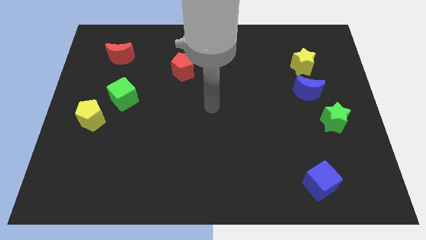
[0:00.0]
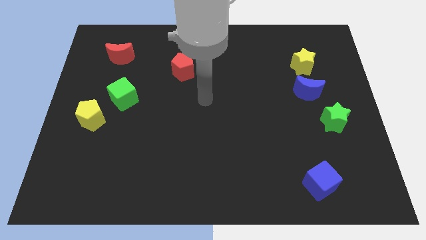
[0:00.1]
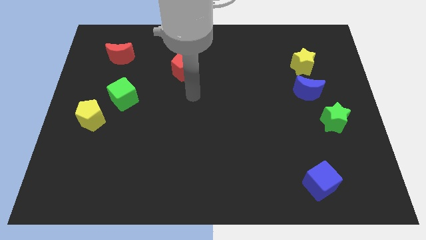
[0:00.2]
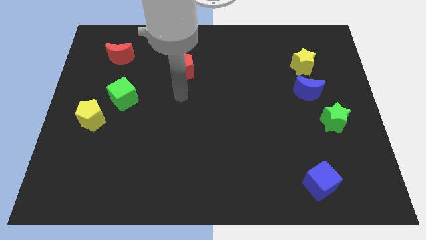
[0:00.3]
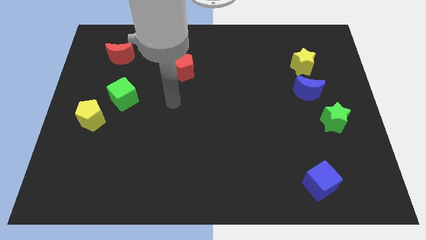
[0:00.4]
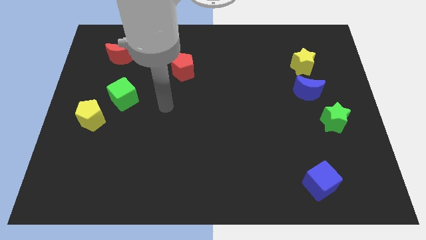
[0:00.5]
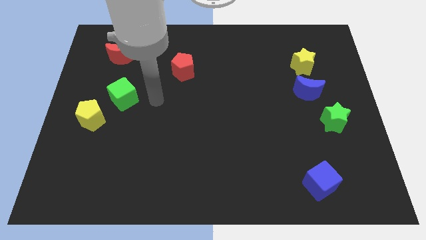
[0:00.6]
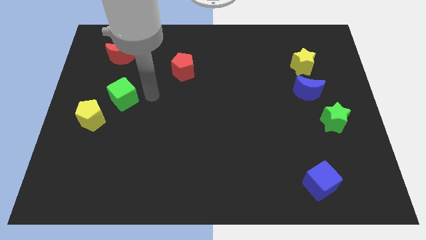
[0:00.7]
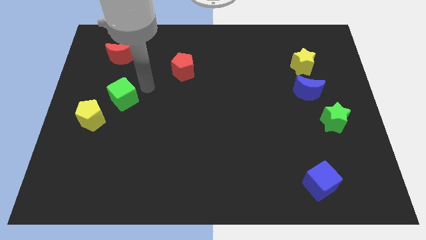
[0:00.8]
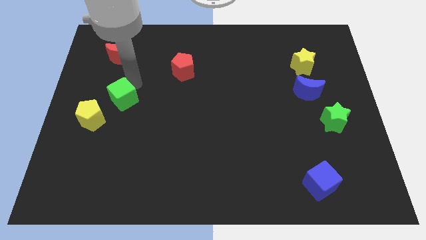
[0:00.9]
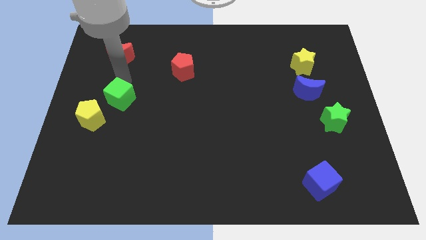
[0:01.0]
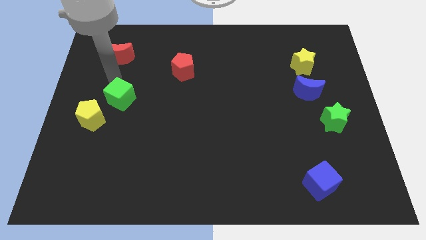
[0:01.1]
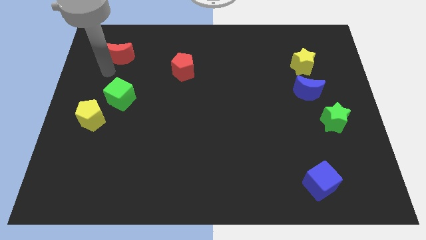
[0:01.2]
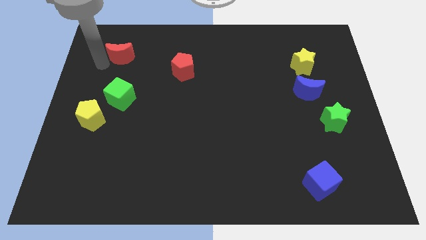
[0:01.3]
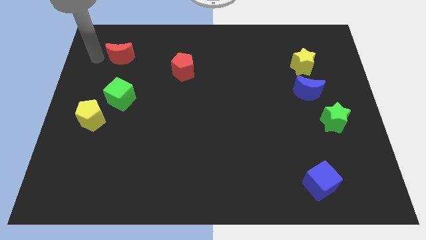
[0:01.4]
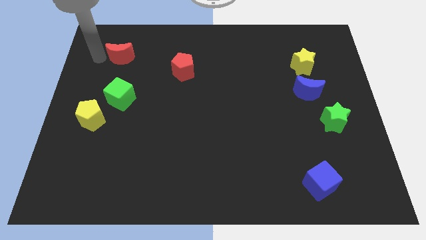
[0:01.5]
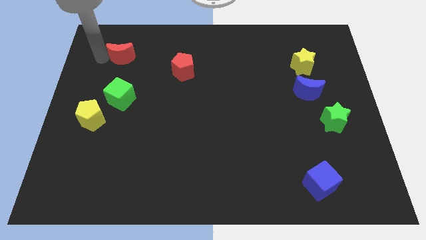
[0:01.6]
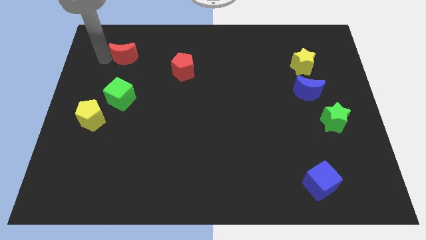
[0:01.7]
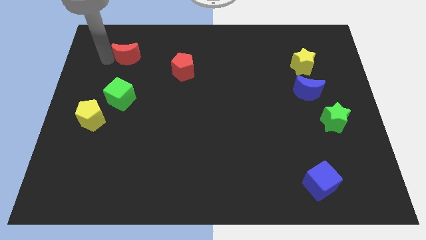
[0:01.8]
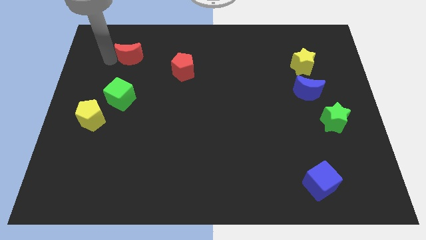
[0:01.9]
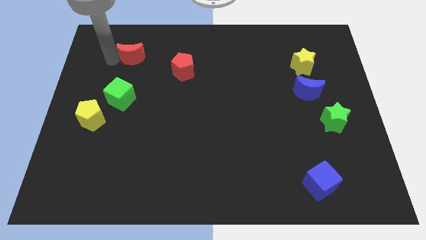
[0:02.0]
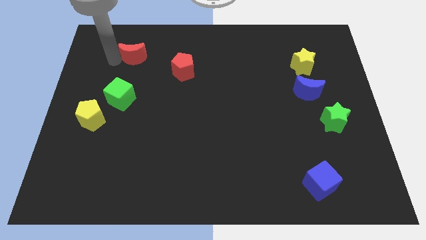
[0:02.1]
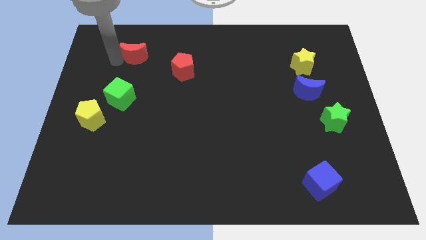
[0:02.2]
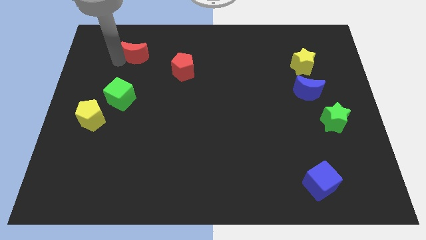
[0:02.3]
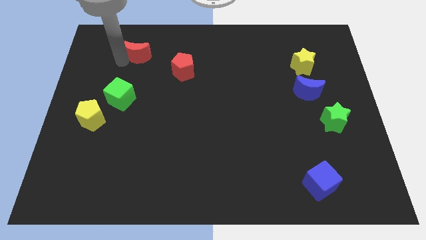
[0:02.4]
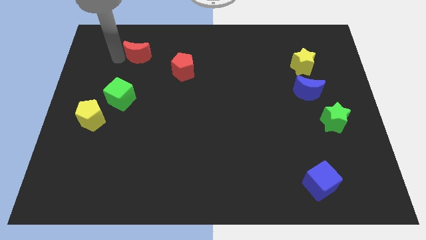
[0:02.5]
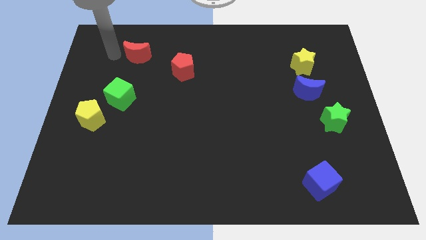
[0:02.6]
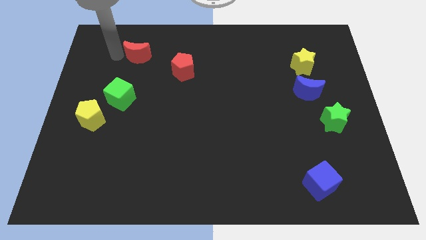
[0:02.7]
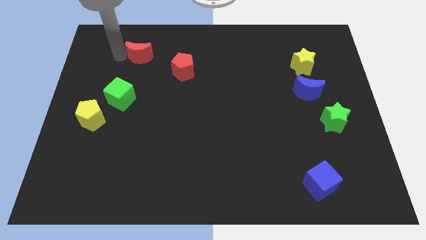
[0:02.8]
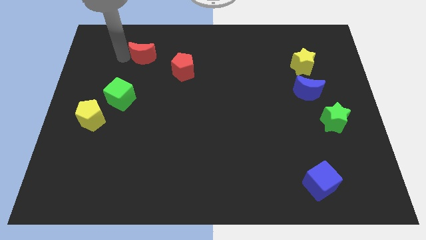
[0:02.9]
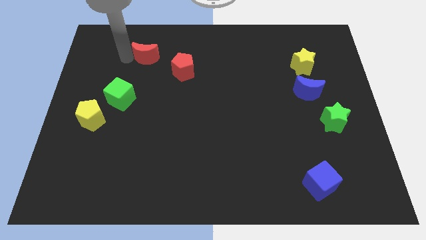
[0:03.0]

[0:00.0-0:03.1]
slightly move the red moon to the right

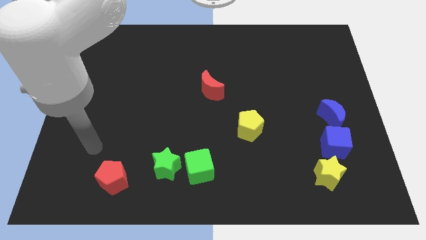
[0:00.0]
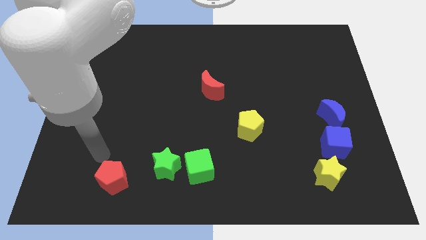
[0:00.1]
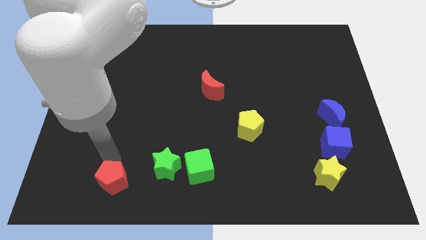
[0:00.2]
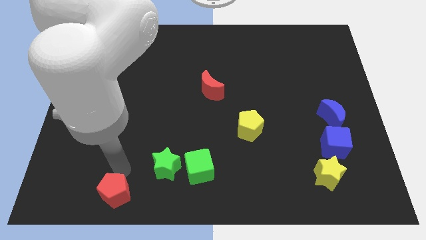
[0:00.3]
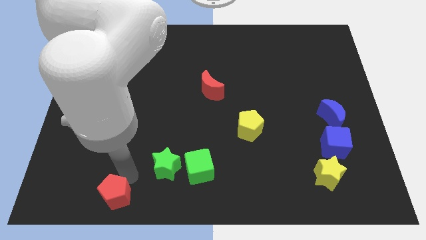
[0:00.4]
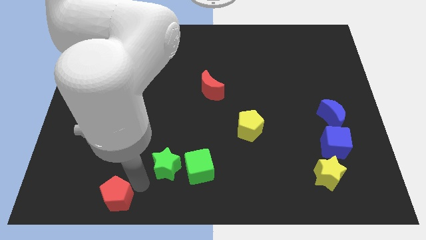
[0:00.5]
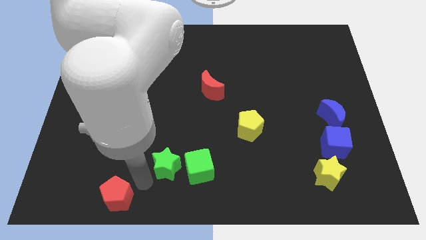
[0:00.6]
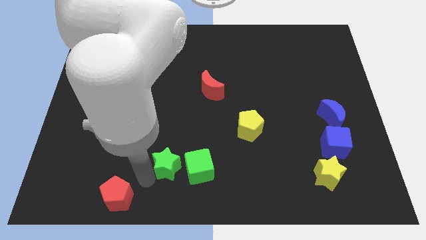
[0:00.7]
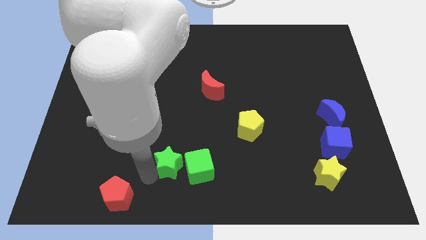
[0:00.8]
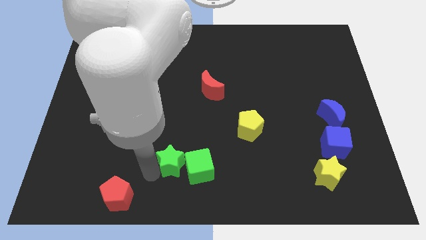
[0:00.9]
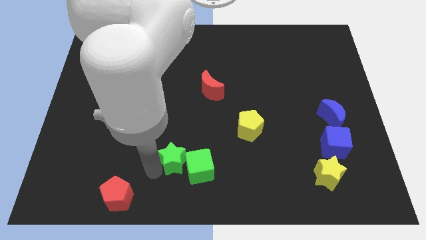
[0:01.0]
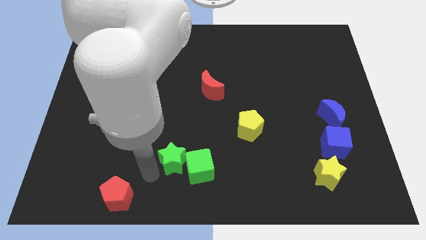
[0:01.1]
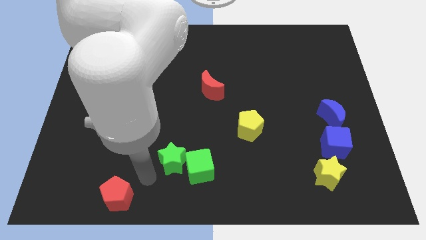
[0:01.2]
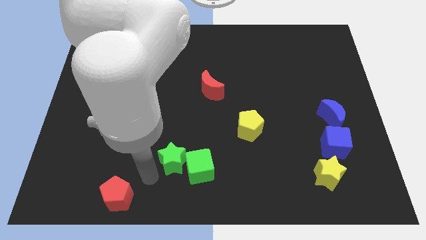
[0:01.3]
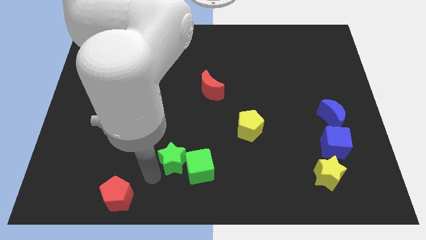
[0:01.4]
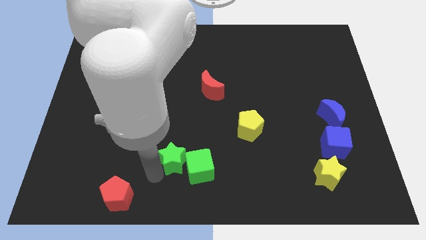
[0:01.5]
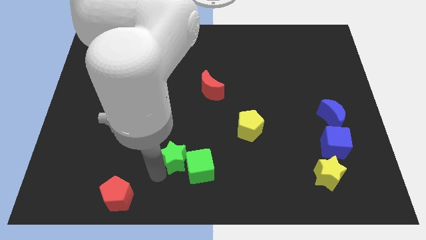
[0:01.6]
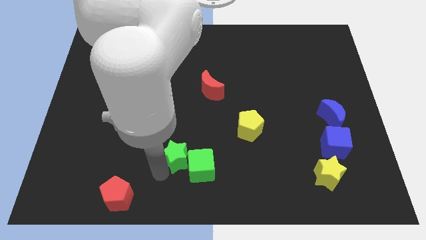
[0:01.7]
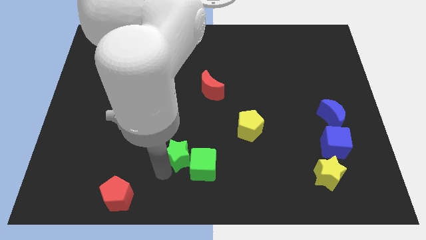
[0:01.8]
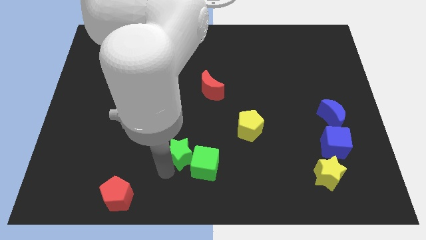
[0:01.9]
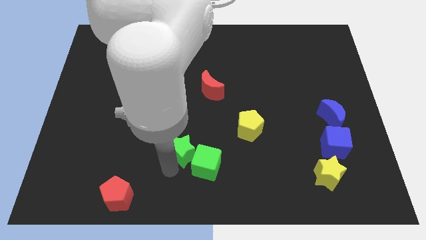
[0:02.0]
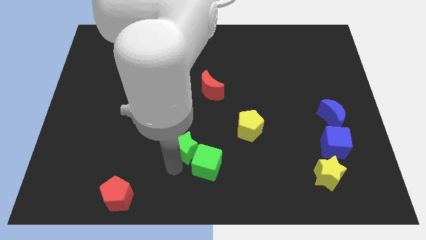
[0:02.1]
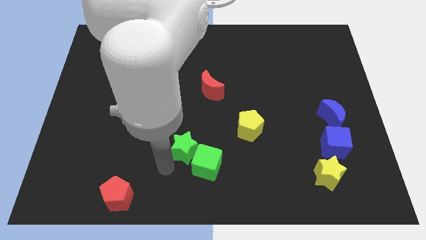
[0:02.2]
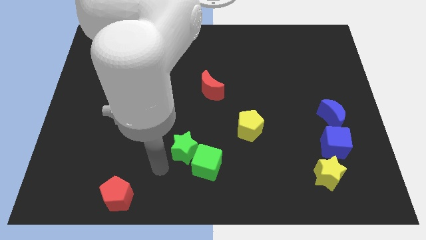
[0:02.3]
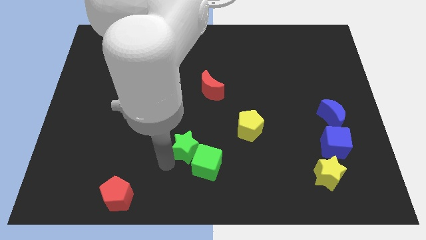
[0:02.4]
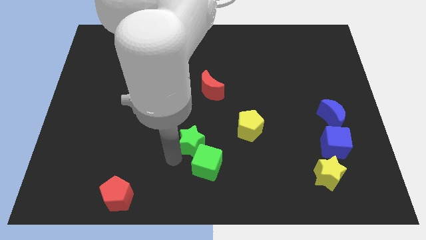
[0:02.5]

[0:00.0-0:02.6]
push the green star a little up and then right

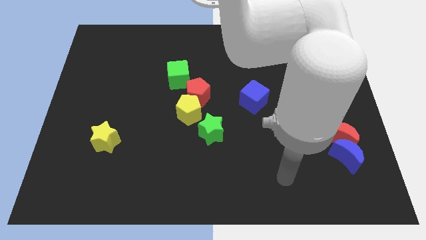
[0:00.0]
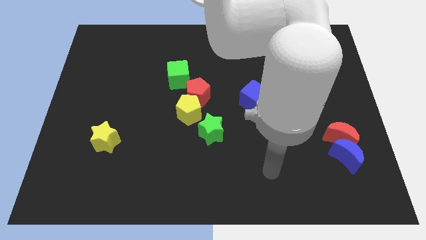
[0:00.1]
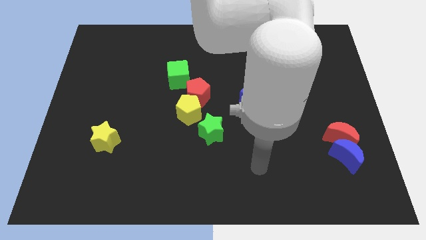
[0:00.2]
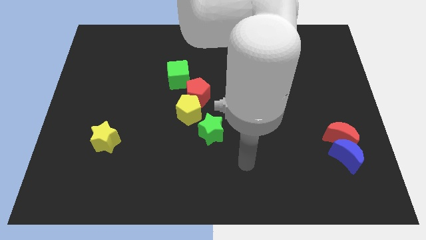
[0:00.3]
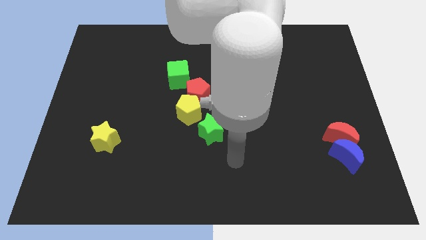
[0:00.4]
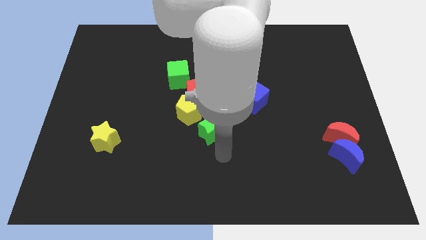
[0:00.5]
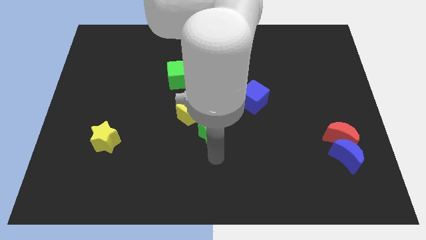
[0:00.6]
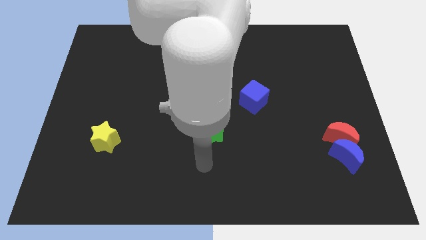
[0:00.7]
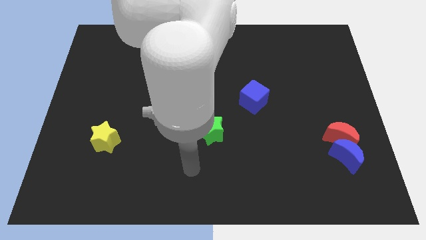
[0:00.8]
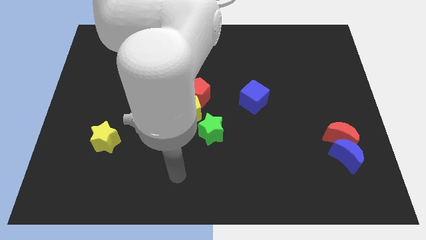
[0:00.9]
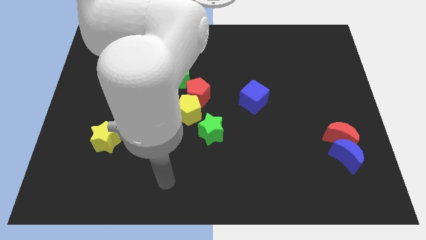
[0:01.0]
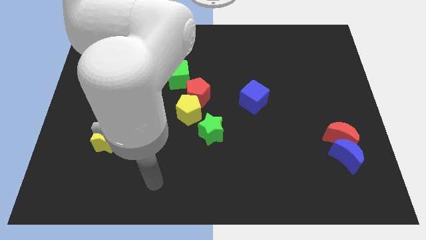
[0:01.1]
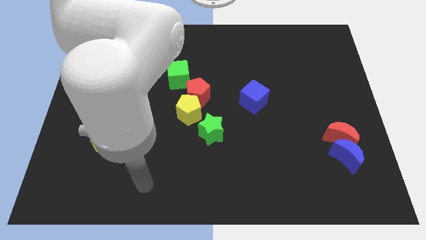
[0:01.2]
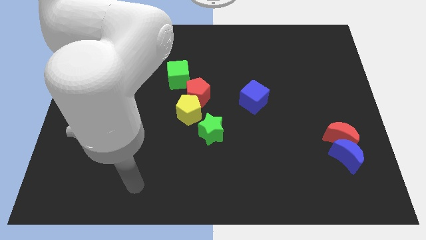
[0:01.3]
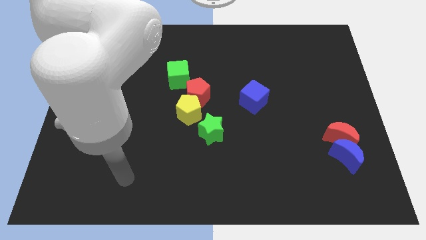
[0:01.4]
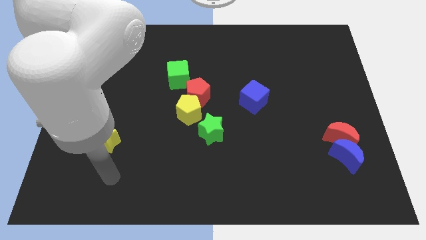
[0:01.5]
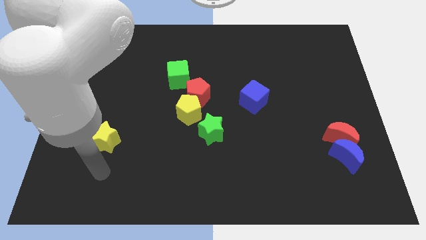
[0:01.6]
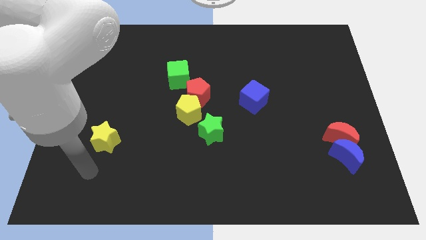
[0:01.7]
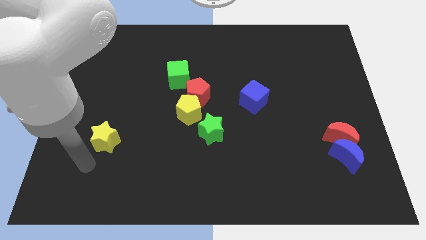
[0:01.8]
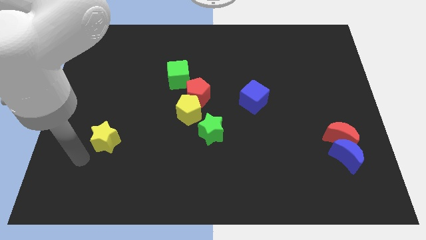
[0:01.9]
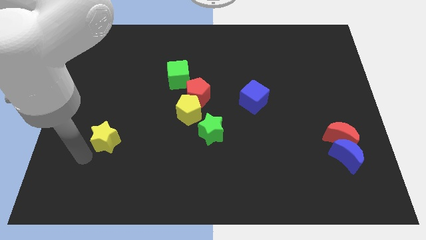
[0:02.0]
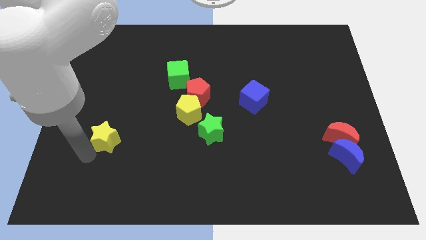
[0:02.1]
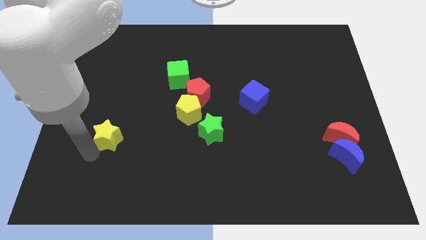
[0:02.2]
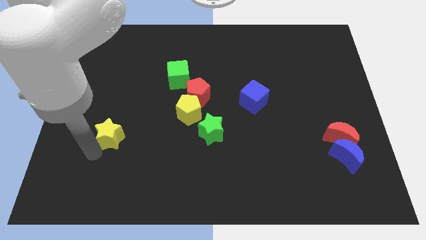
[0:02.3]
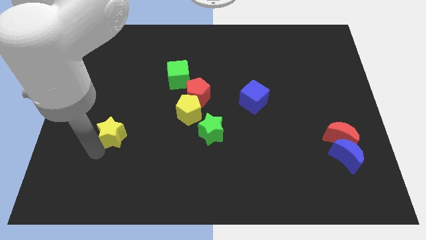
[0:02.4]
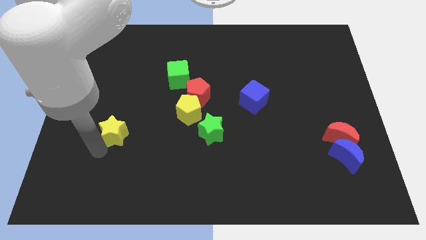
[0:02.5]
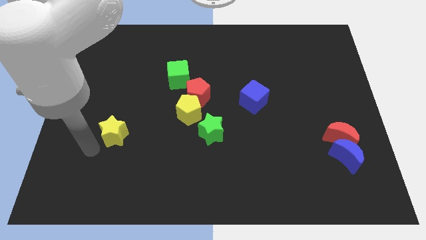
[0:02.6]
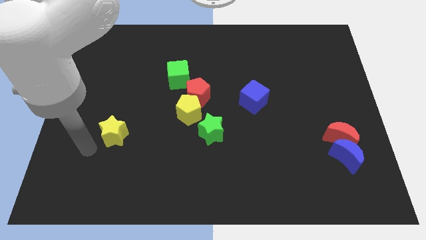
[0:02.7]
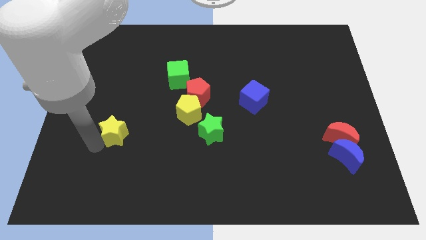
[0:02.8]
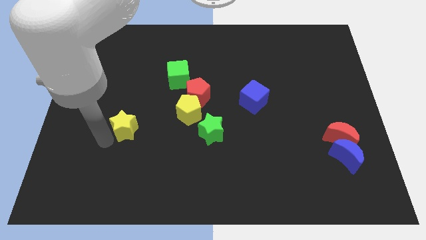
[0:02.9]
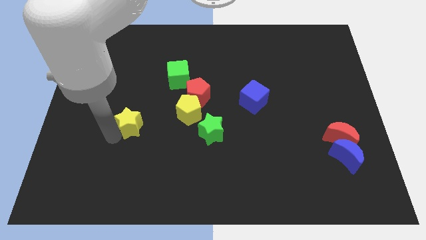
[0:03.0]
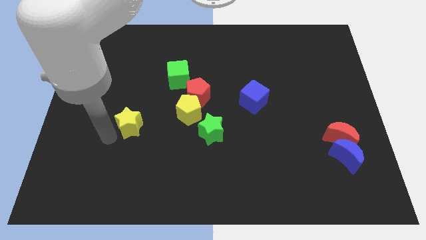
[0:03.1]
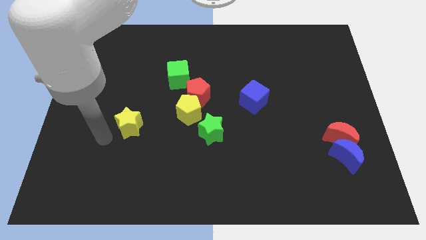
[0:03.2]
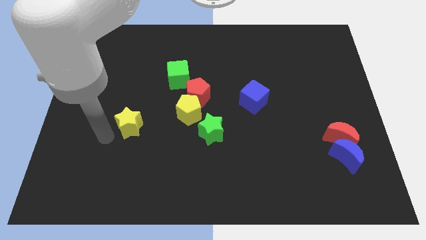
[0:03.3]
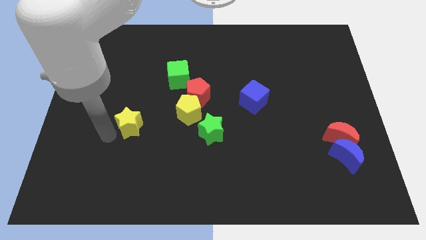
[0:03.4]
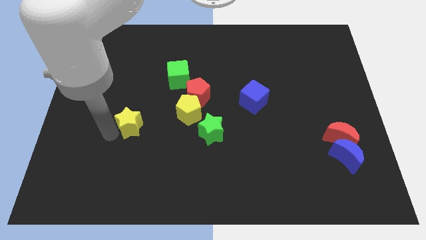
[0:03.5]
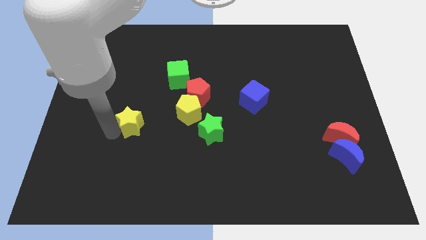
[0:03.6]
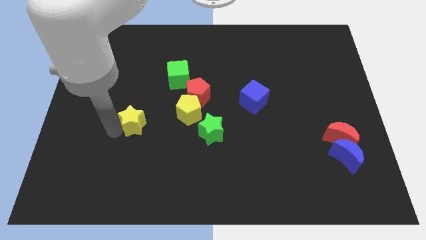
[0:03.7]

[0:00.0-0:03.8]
move the yellow star slightly up and to the right
